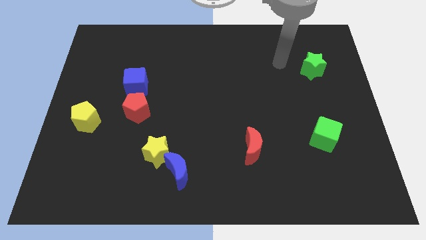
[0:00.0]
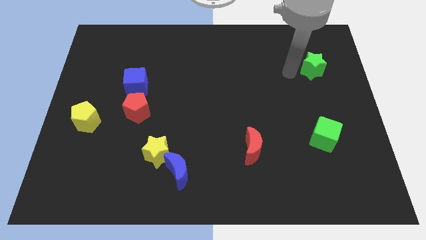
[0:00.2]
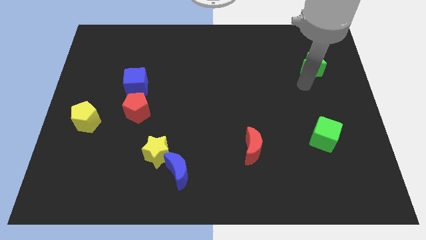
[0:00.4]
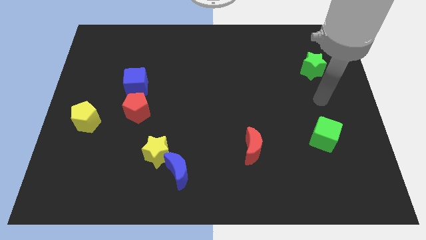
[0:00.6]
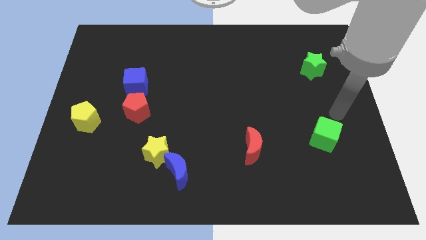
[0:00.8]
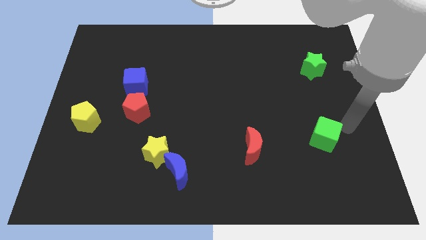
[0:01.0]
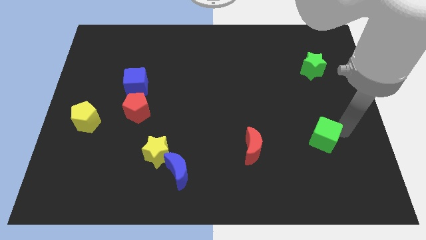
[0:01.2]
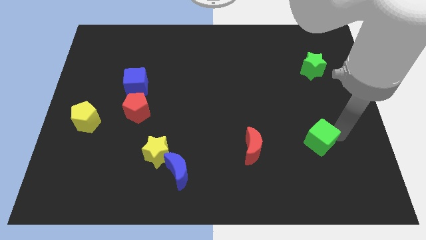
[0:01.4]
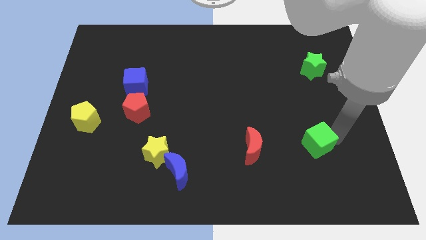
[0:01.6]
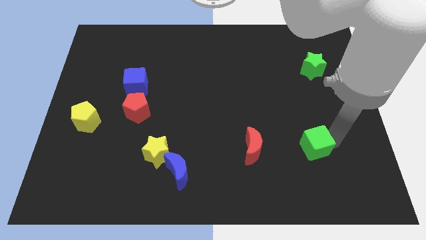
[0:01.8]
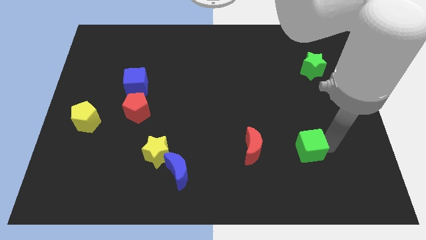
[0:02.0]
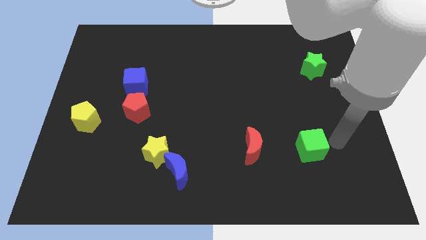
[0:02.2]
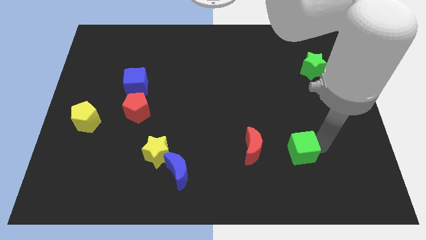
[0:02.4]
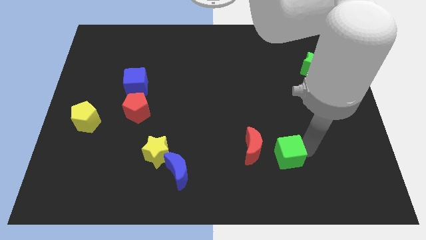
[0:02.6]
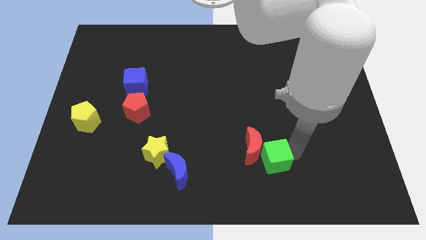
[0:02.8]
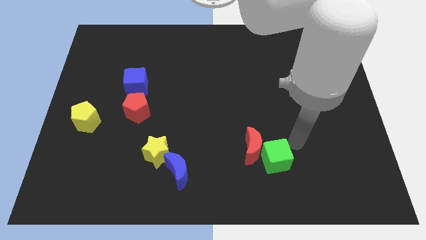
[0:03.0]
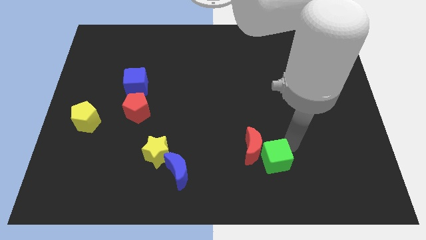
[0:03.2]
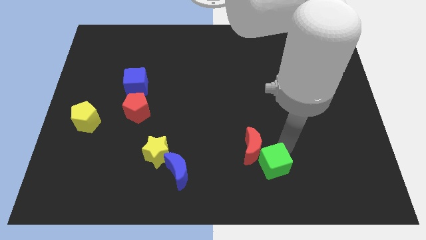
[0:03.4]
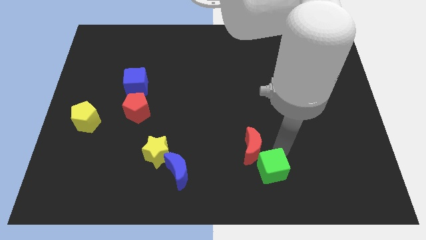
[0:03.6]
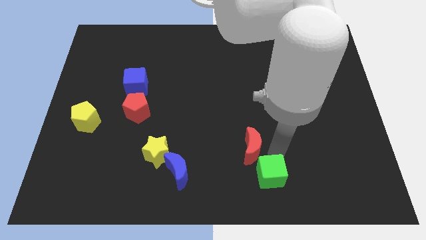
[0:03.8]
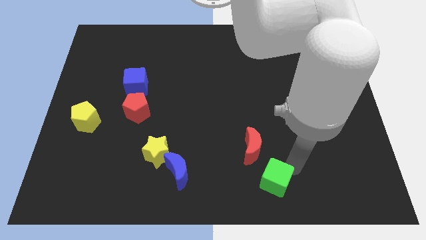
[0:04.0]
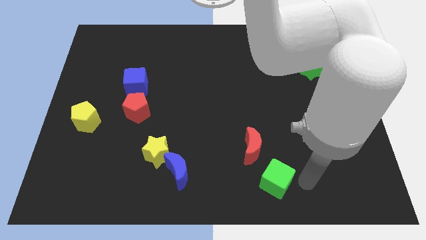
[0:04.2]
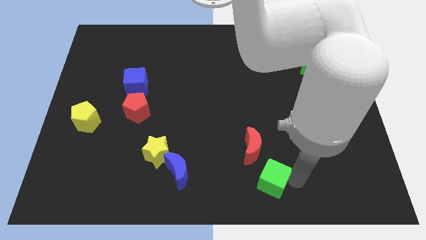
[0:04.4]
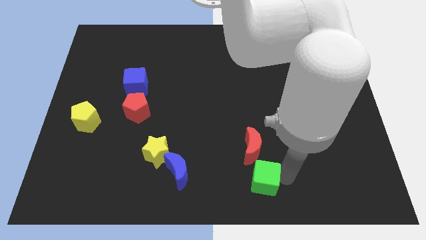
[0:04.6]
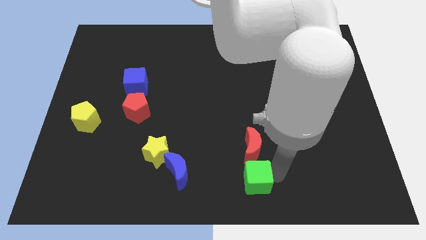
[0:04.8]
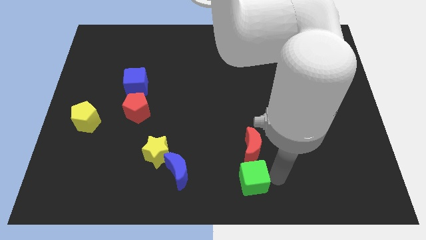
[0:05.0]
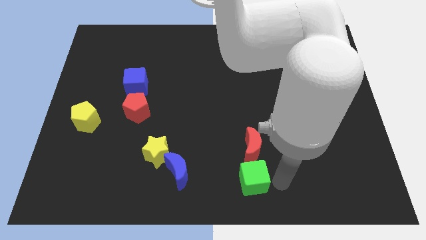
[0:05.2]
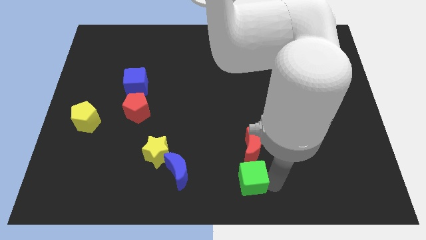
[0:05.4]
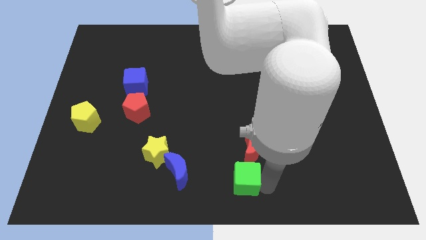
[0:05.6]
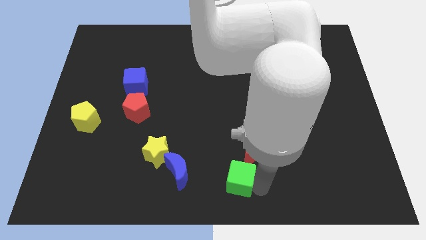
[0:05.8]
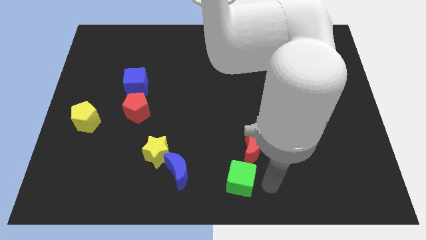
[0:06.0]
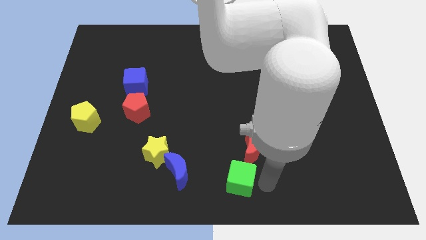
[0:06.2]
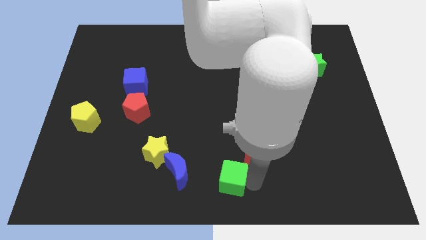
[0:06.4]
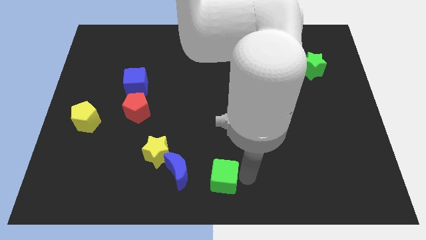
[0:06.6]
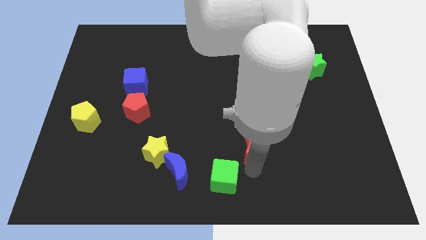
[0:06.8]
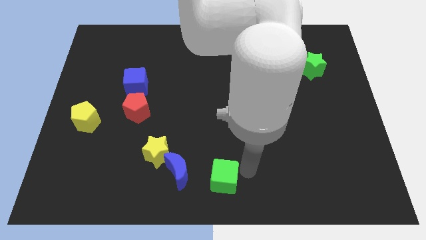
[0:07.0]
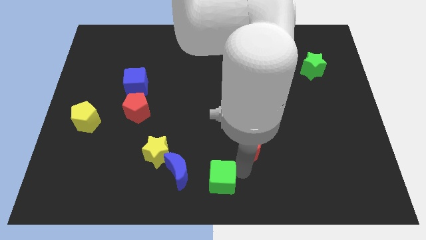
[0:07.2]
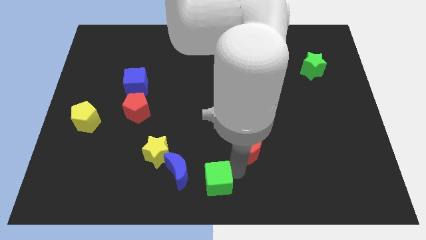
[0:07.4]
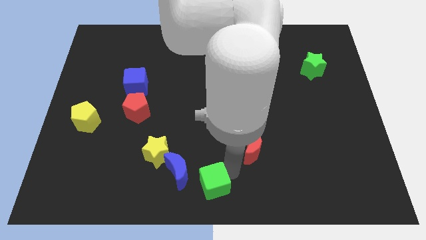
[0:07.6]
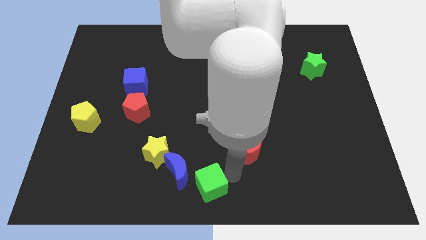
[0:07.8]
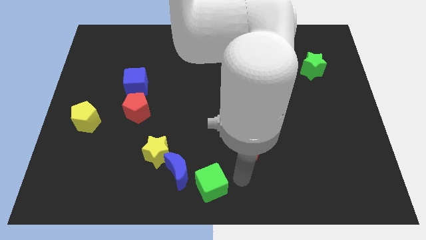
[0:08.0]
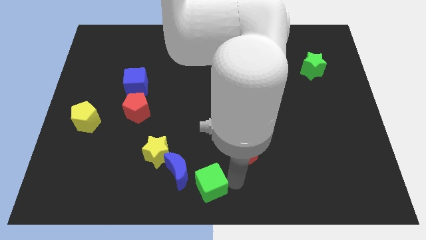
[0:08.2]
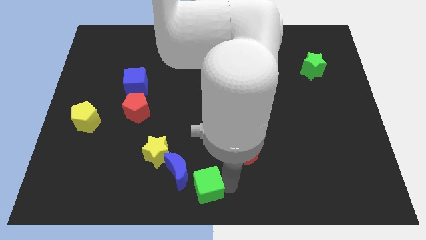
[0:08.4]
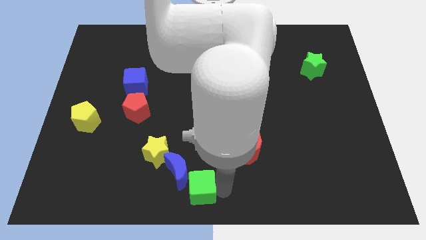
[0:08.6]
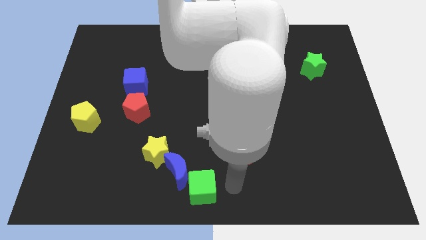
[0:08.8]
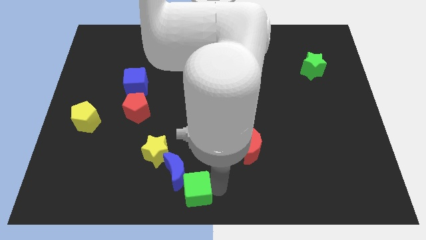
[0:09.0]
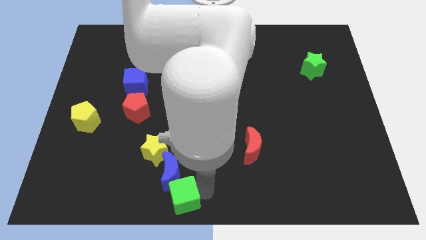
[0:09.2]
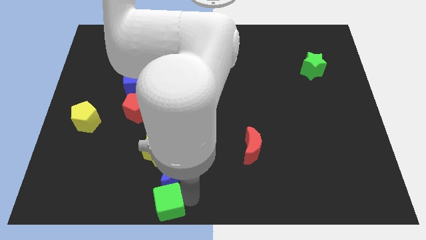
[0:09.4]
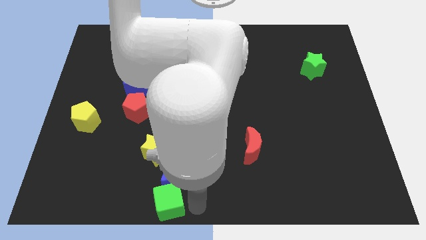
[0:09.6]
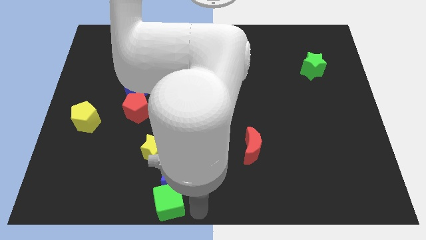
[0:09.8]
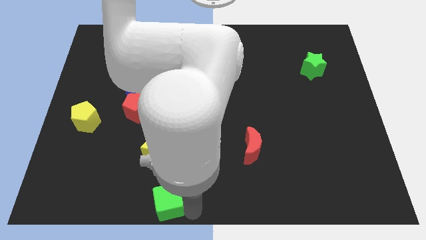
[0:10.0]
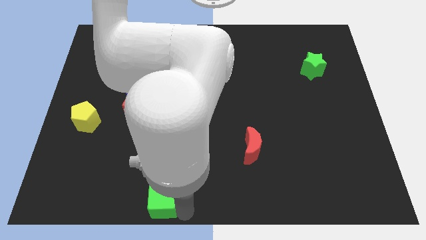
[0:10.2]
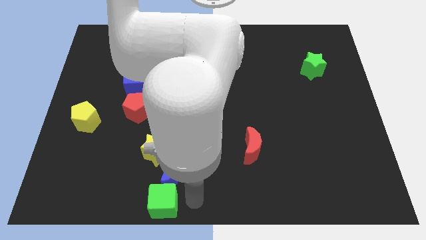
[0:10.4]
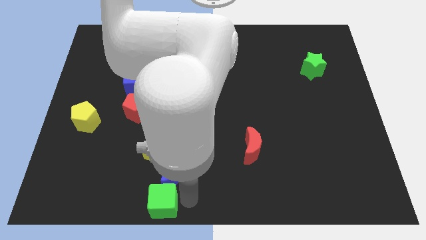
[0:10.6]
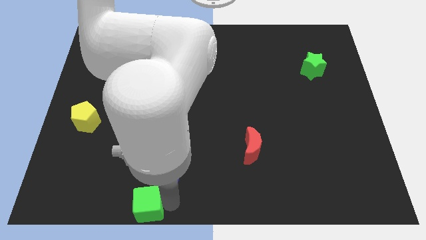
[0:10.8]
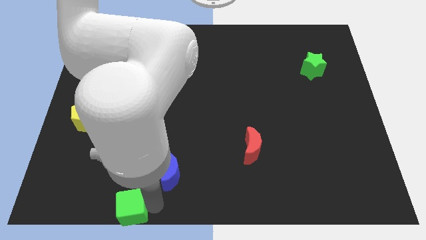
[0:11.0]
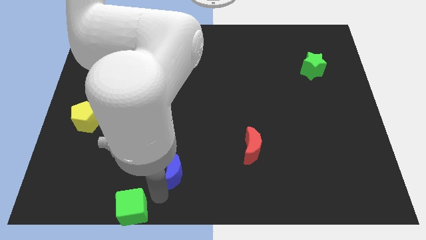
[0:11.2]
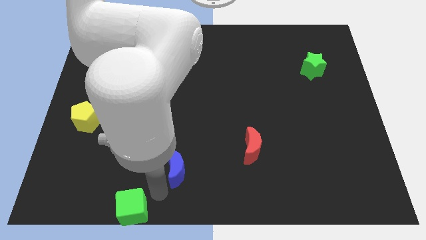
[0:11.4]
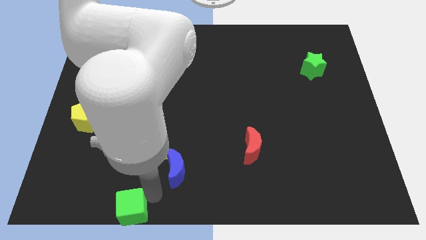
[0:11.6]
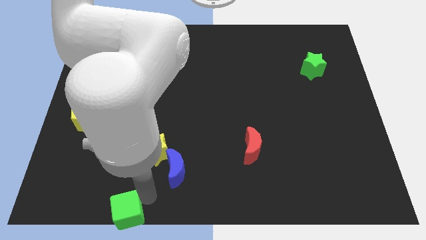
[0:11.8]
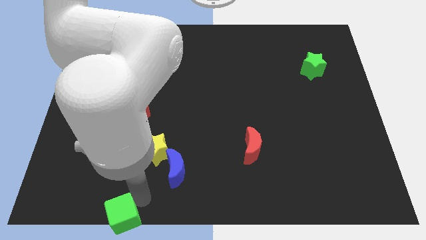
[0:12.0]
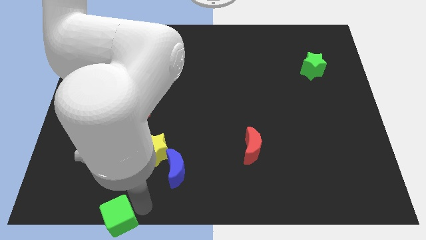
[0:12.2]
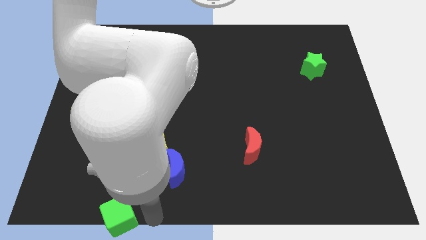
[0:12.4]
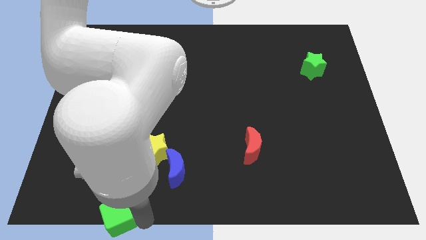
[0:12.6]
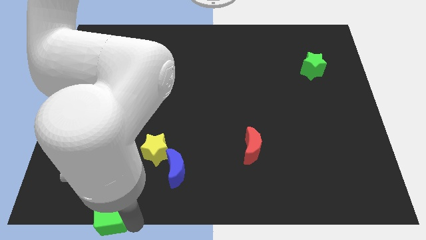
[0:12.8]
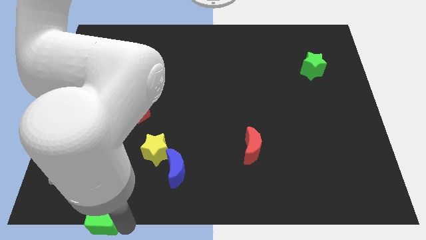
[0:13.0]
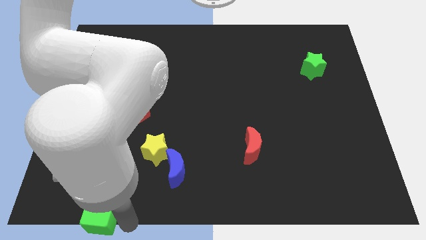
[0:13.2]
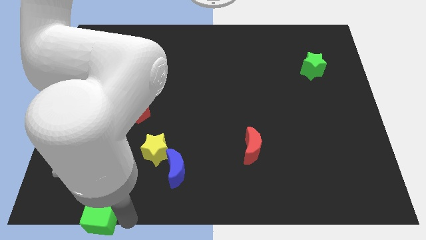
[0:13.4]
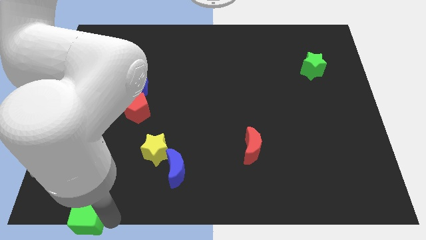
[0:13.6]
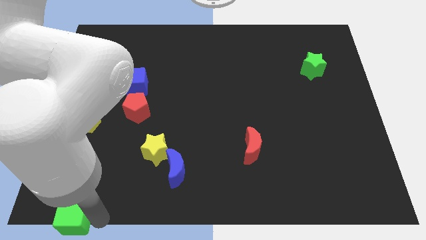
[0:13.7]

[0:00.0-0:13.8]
move the green cube to the bottom left of the board

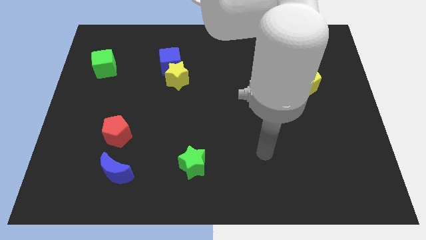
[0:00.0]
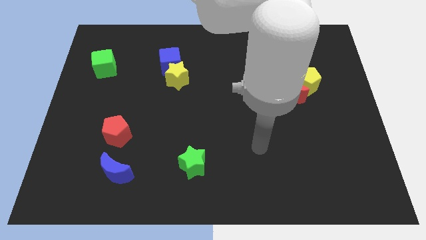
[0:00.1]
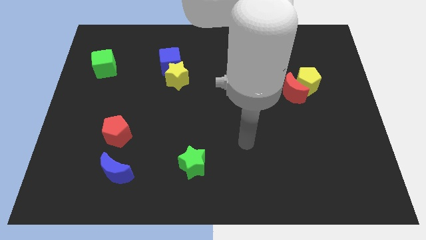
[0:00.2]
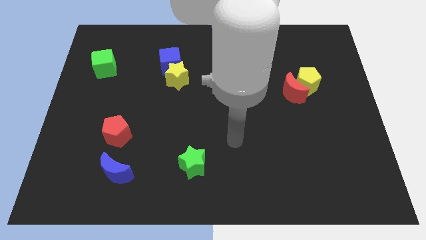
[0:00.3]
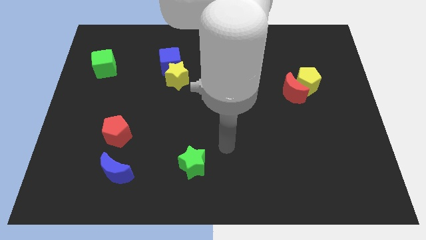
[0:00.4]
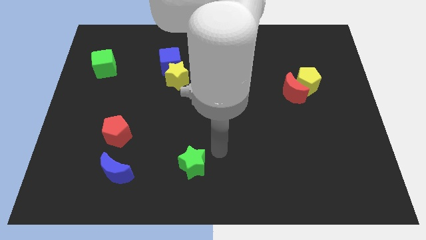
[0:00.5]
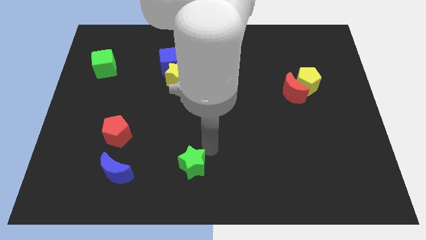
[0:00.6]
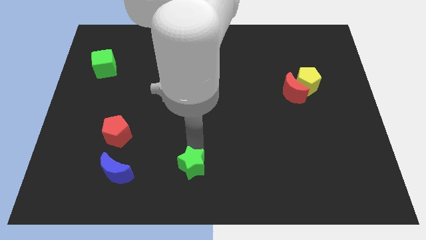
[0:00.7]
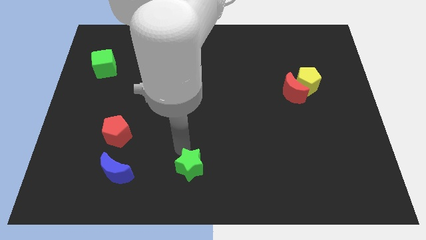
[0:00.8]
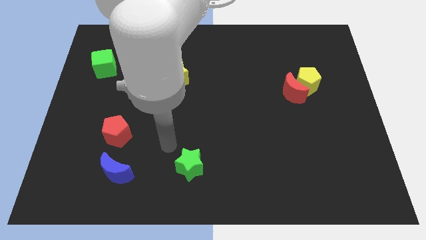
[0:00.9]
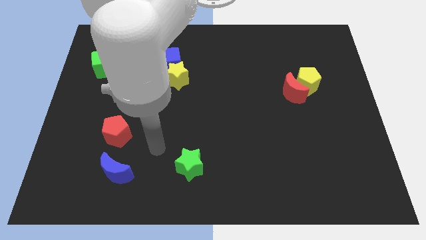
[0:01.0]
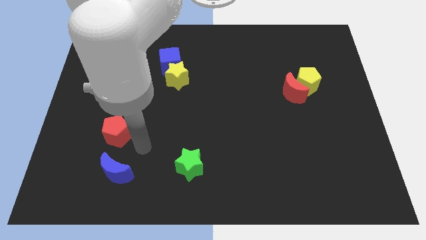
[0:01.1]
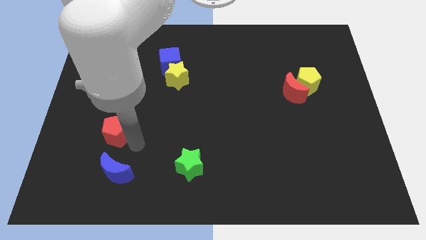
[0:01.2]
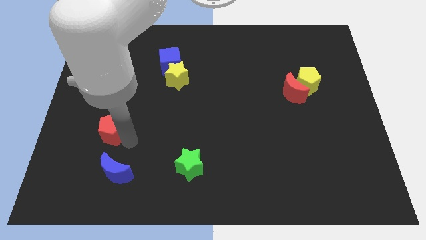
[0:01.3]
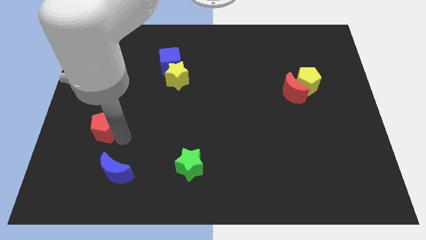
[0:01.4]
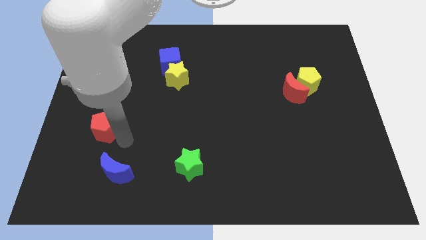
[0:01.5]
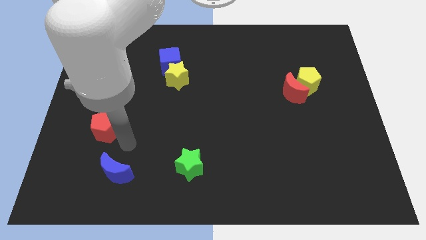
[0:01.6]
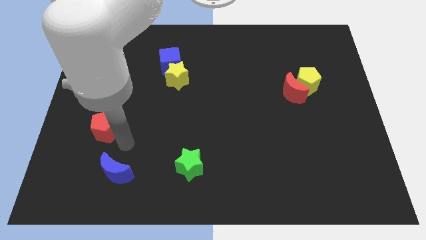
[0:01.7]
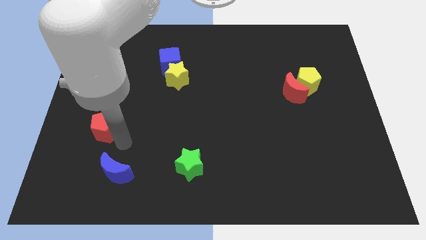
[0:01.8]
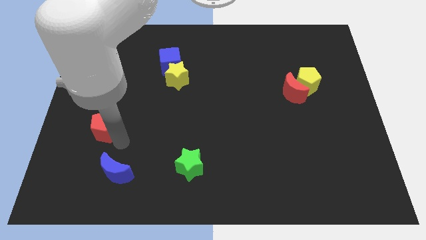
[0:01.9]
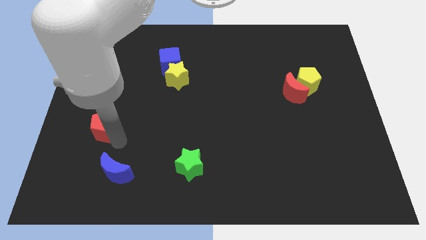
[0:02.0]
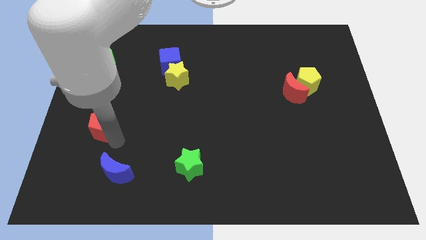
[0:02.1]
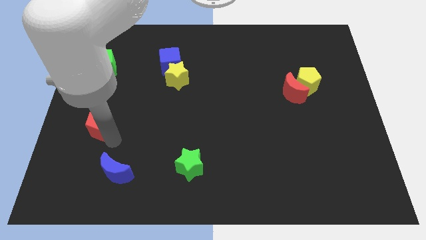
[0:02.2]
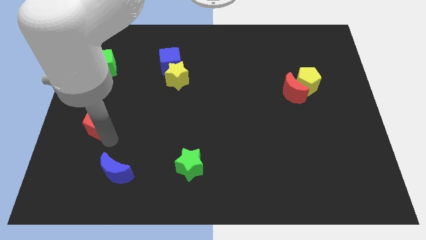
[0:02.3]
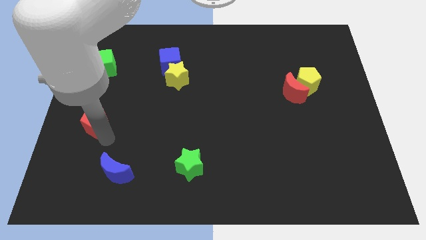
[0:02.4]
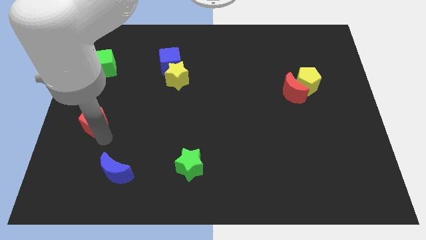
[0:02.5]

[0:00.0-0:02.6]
move the red pentagon to the left side
